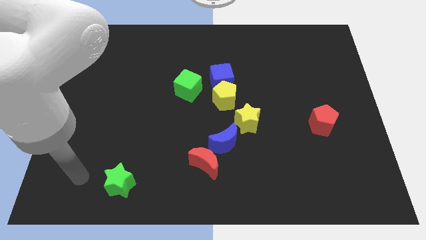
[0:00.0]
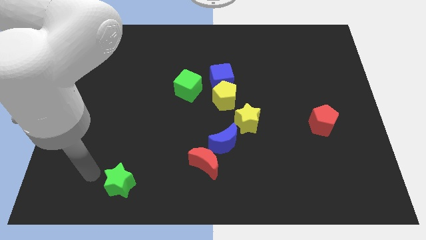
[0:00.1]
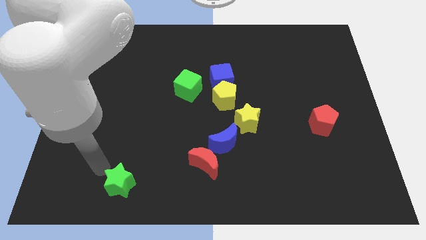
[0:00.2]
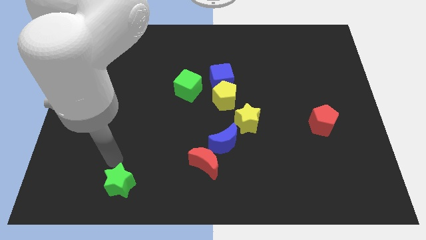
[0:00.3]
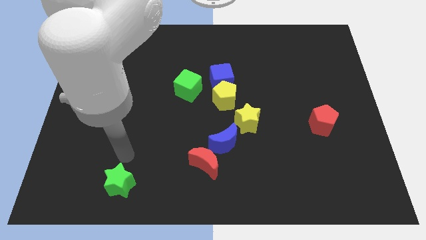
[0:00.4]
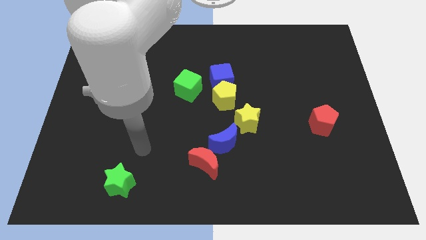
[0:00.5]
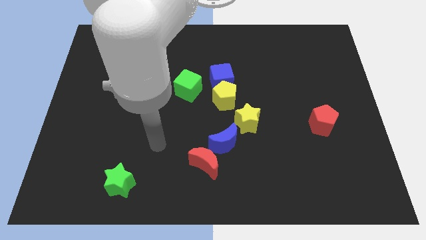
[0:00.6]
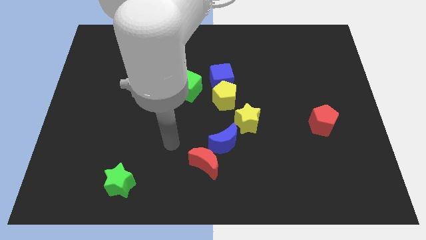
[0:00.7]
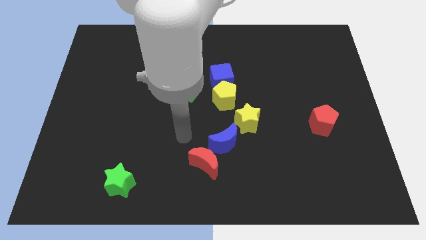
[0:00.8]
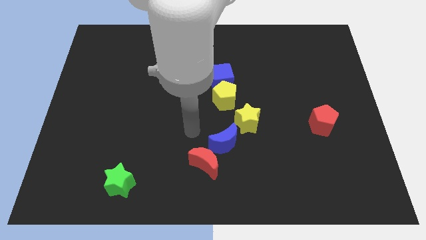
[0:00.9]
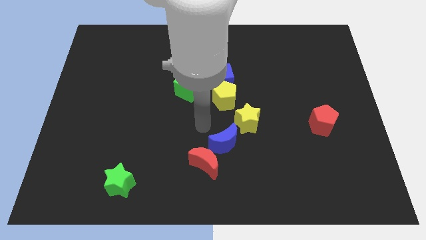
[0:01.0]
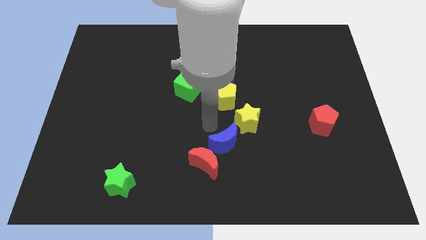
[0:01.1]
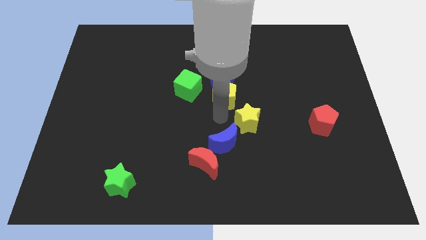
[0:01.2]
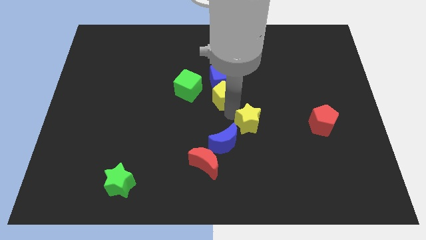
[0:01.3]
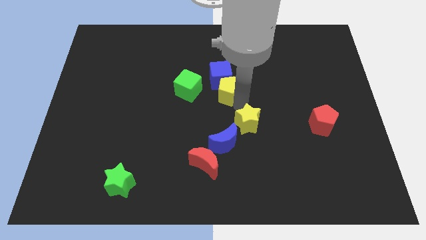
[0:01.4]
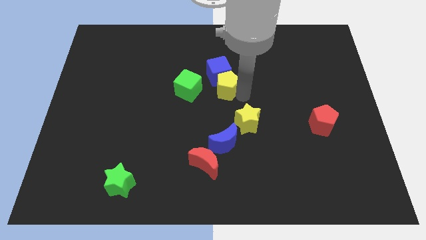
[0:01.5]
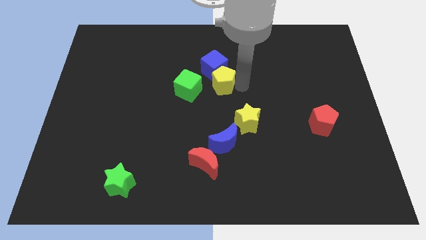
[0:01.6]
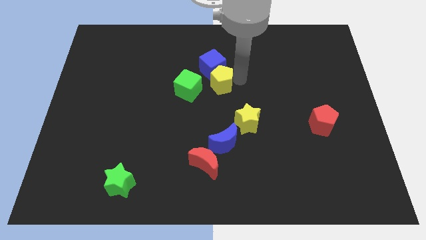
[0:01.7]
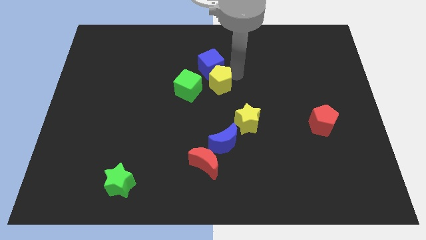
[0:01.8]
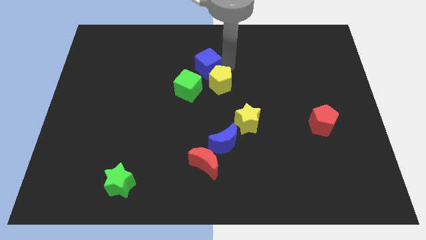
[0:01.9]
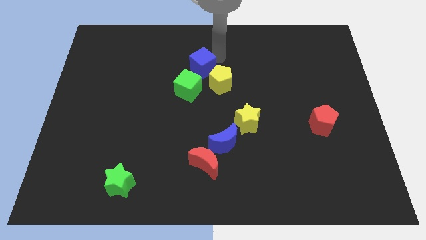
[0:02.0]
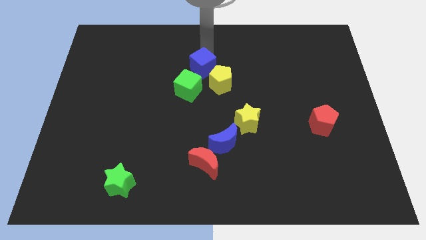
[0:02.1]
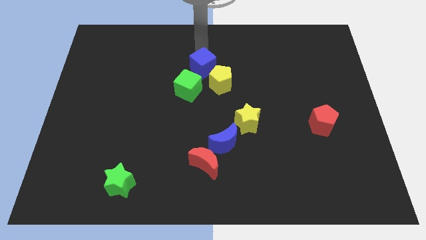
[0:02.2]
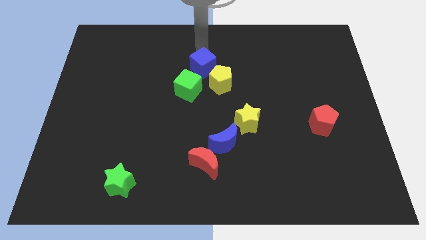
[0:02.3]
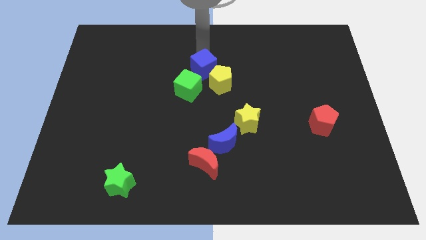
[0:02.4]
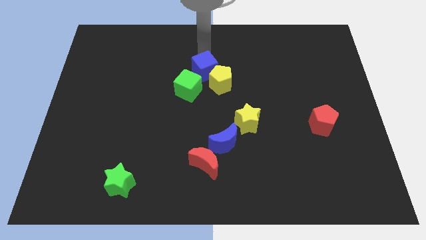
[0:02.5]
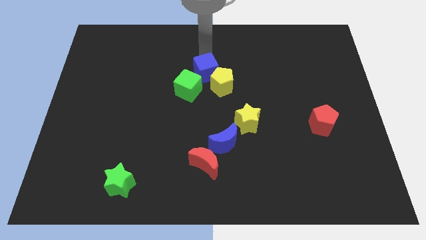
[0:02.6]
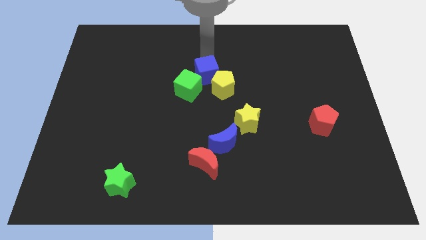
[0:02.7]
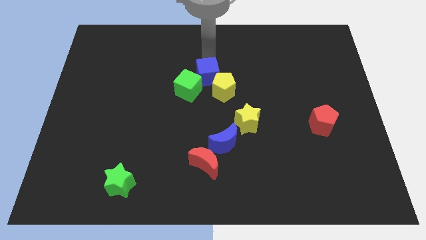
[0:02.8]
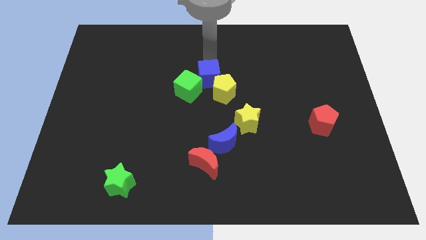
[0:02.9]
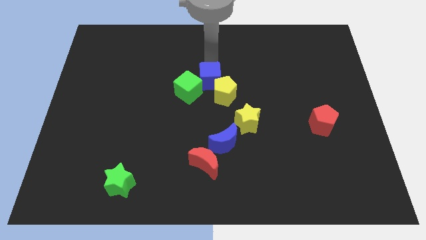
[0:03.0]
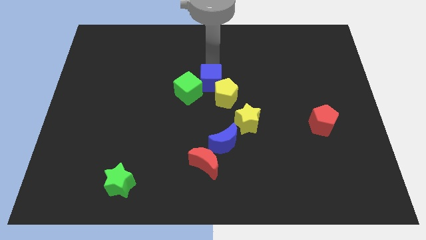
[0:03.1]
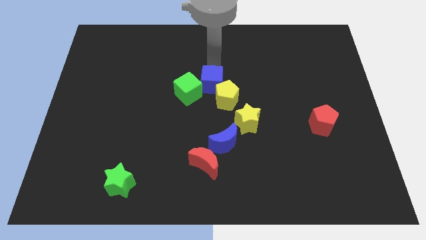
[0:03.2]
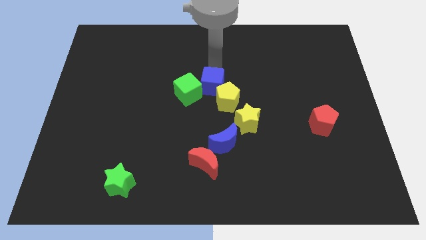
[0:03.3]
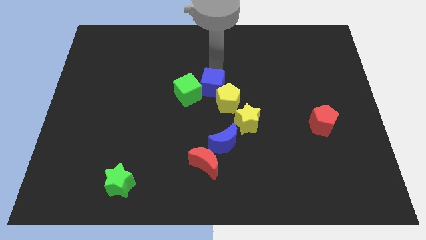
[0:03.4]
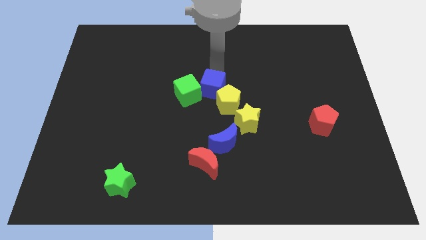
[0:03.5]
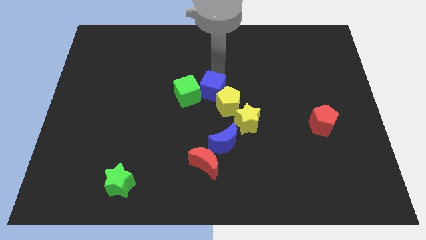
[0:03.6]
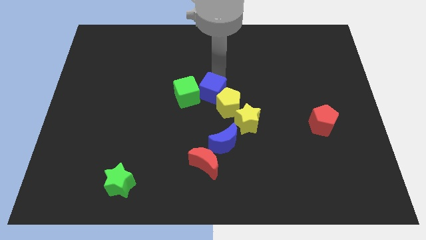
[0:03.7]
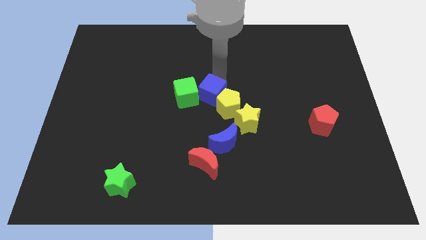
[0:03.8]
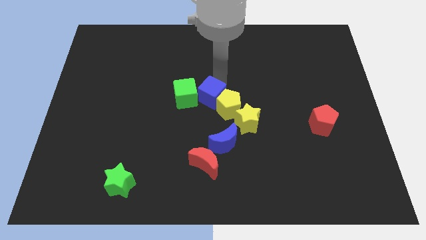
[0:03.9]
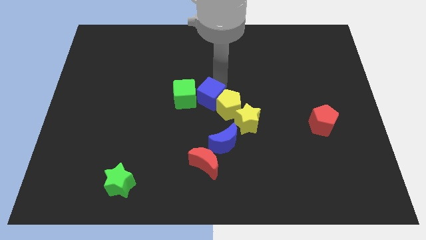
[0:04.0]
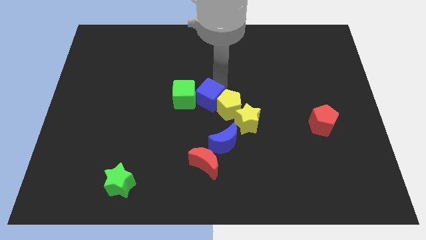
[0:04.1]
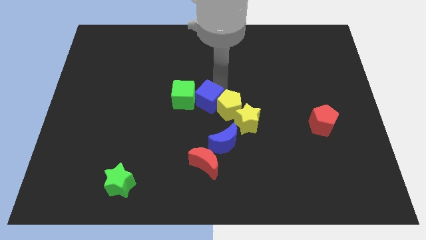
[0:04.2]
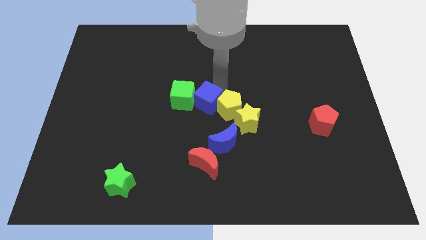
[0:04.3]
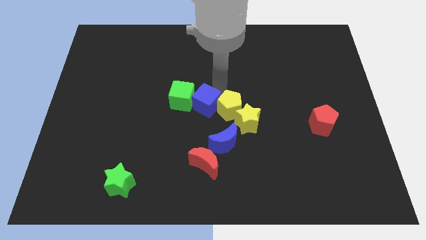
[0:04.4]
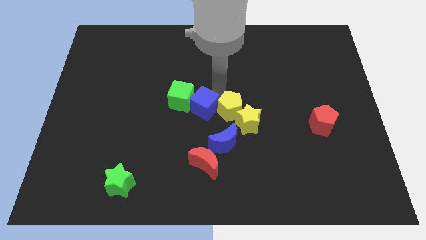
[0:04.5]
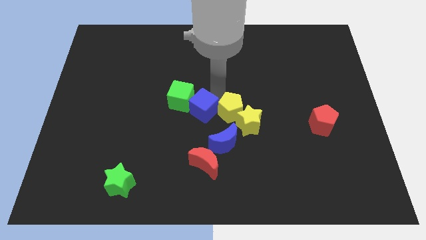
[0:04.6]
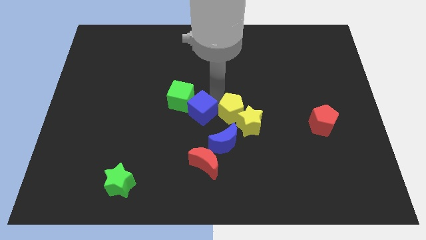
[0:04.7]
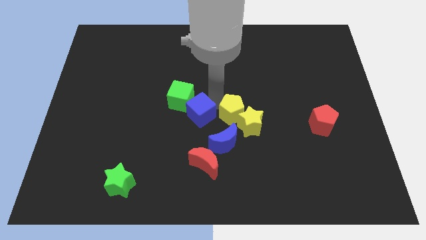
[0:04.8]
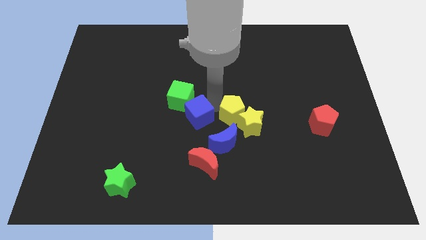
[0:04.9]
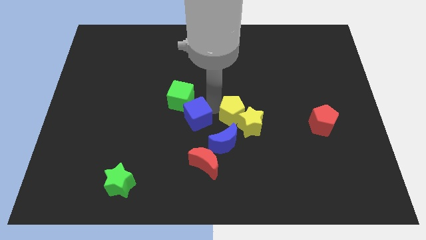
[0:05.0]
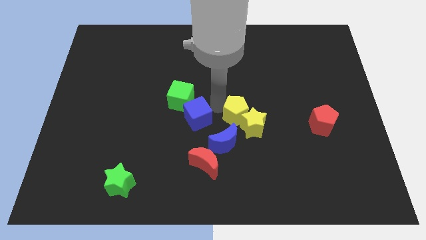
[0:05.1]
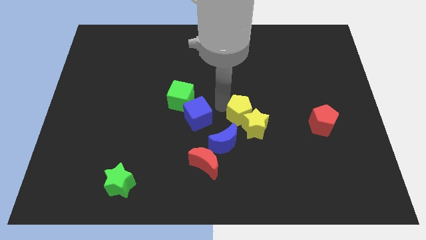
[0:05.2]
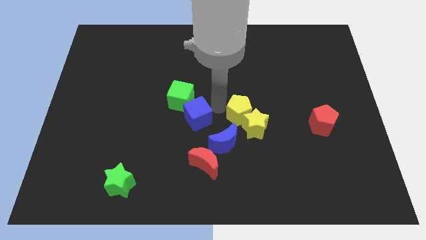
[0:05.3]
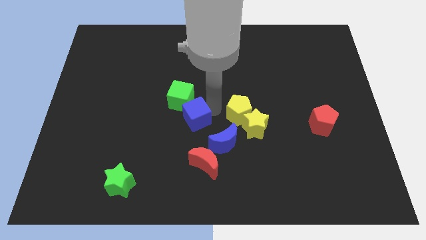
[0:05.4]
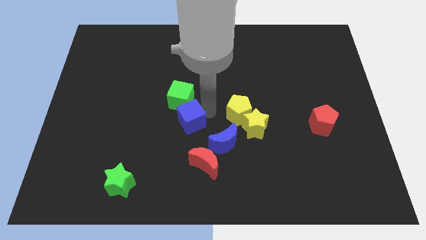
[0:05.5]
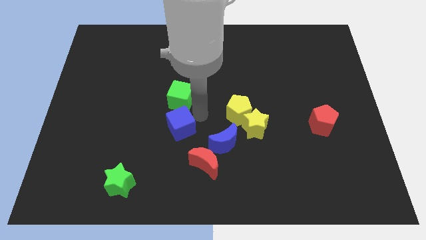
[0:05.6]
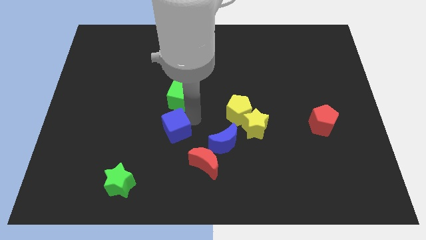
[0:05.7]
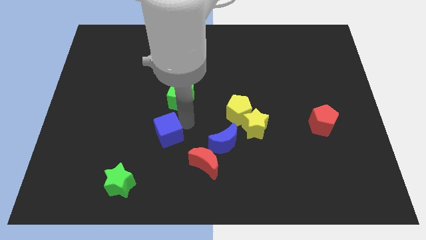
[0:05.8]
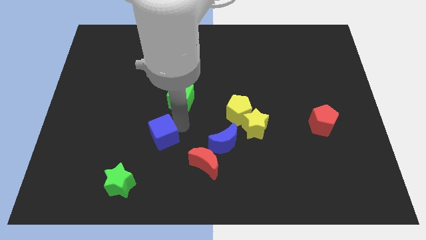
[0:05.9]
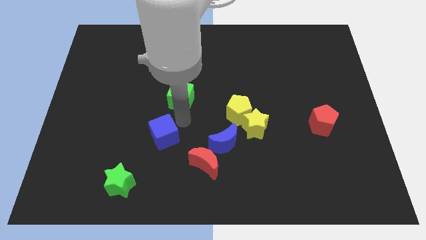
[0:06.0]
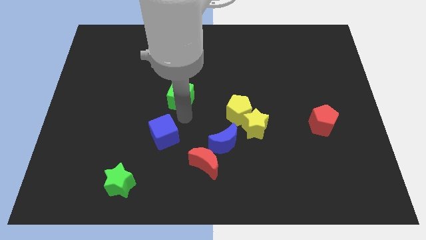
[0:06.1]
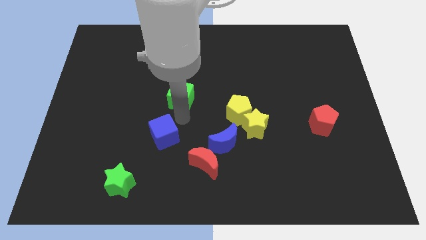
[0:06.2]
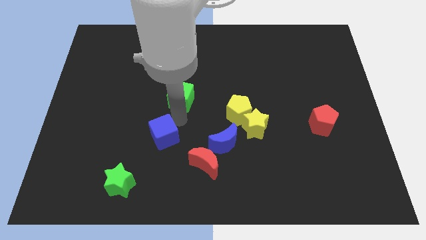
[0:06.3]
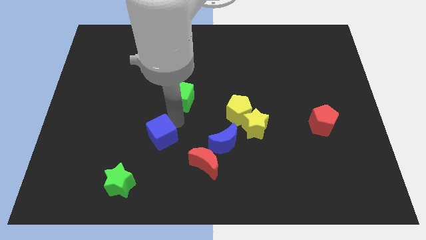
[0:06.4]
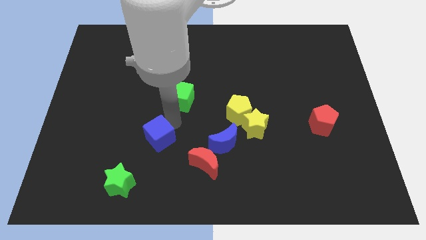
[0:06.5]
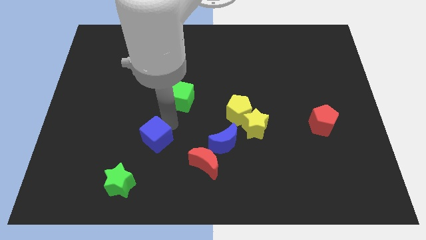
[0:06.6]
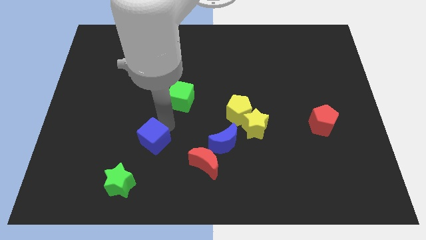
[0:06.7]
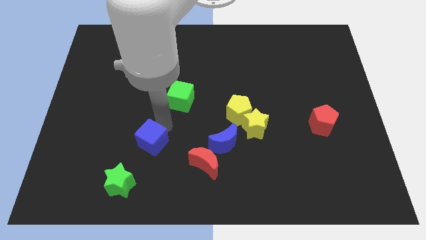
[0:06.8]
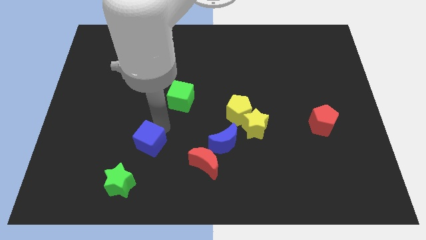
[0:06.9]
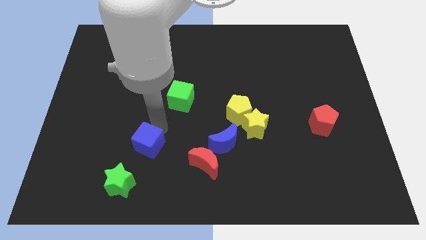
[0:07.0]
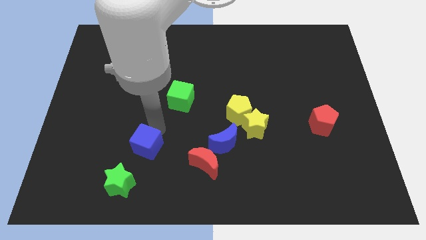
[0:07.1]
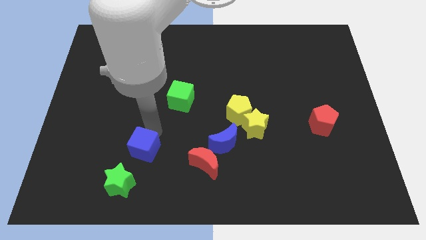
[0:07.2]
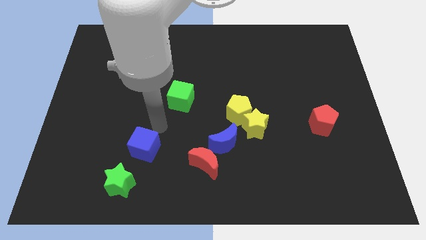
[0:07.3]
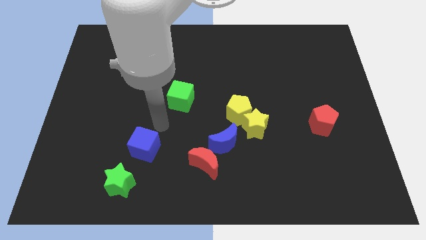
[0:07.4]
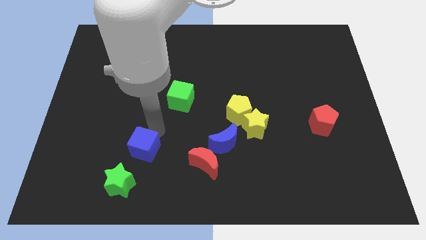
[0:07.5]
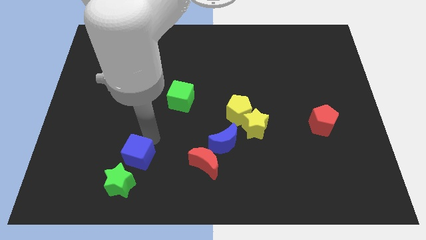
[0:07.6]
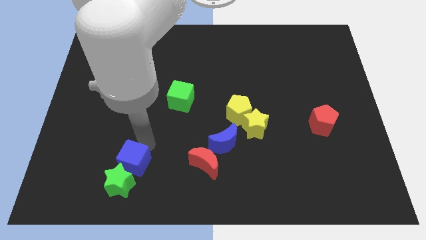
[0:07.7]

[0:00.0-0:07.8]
push the blue cube to the green star
